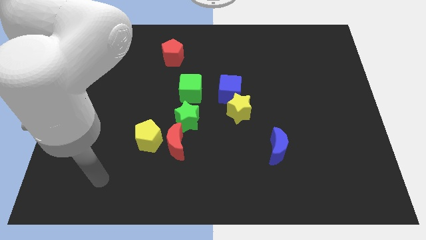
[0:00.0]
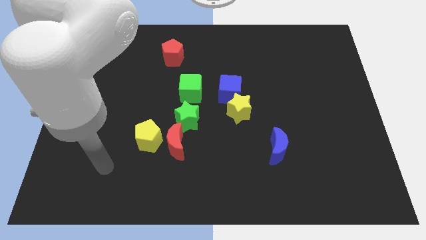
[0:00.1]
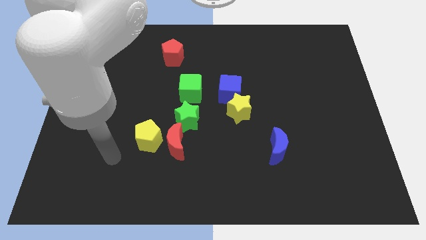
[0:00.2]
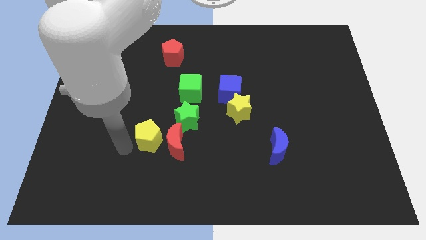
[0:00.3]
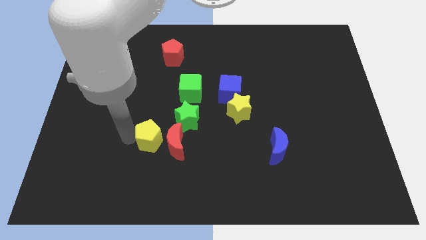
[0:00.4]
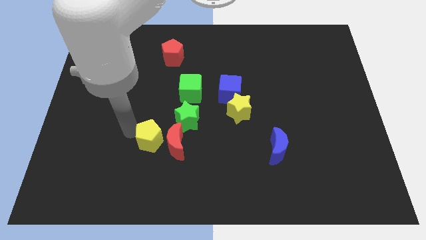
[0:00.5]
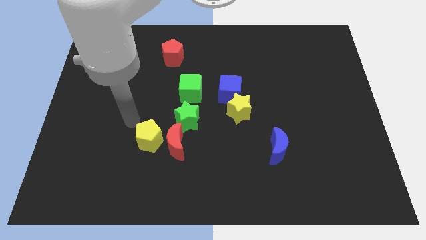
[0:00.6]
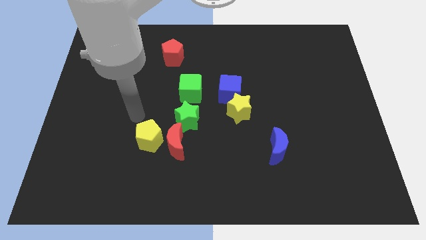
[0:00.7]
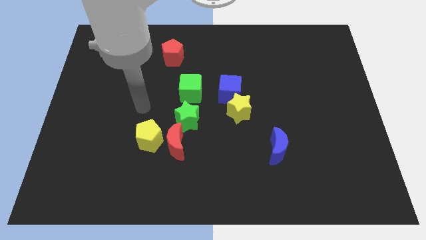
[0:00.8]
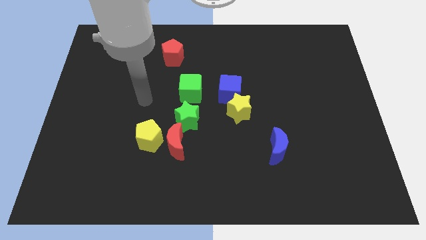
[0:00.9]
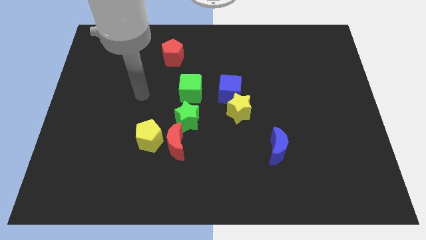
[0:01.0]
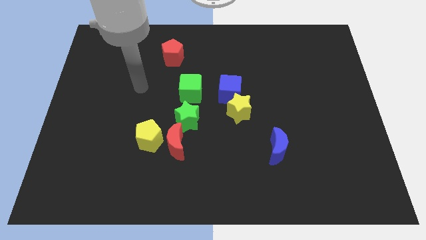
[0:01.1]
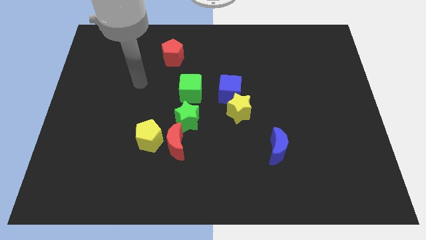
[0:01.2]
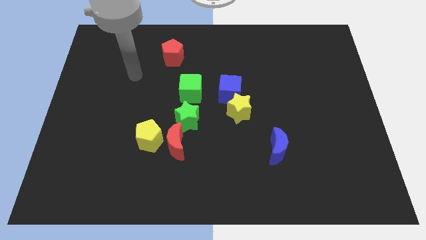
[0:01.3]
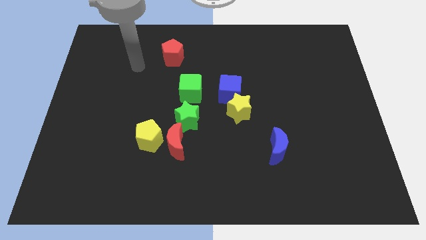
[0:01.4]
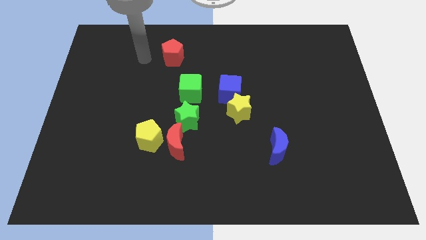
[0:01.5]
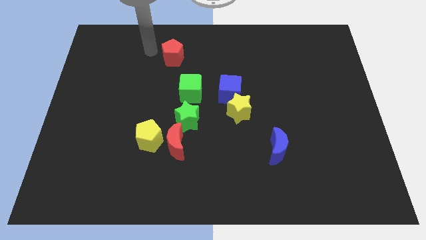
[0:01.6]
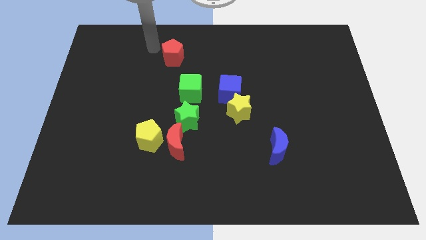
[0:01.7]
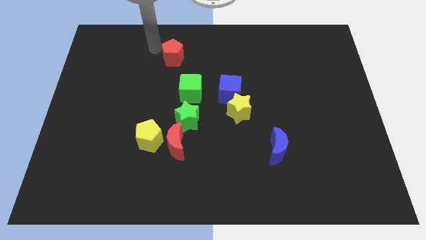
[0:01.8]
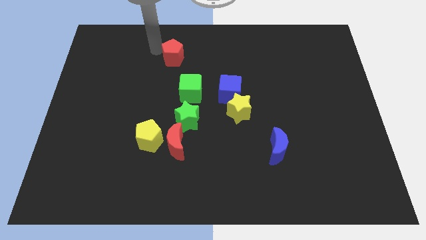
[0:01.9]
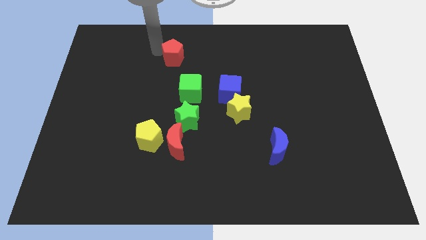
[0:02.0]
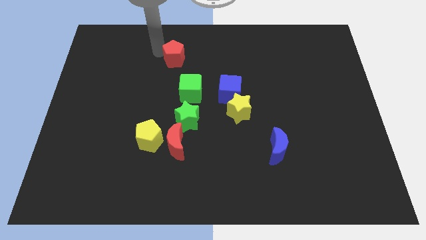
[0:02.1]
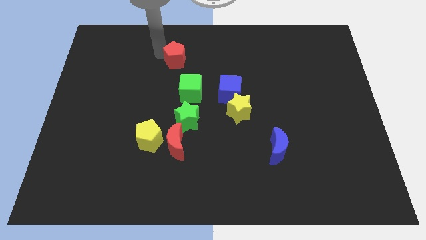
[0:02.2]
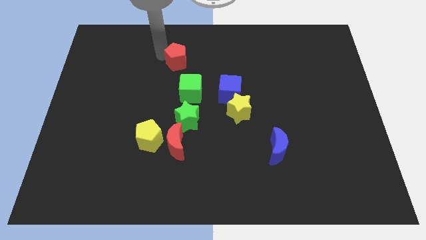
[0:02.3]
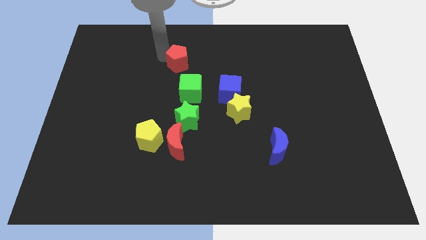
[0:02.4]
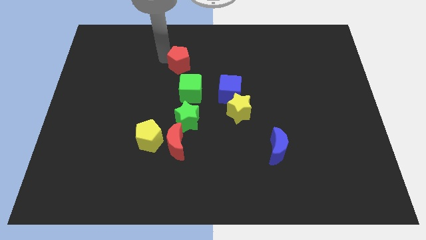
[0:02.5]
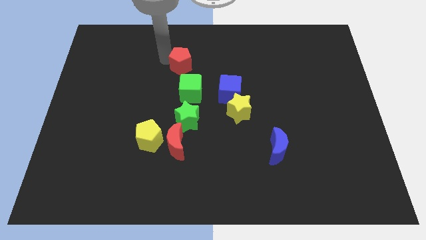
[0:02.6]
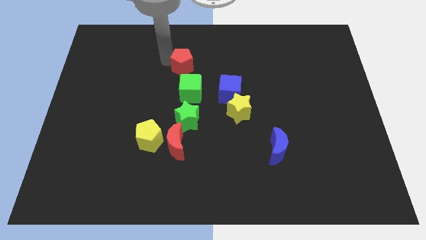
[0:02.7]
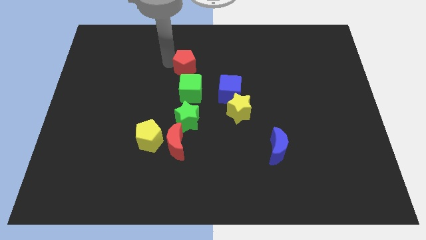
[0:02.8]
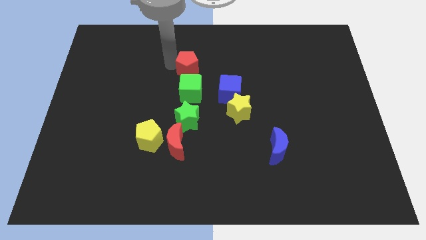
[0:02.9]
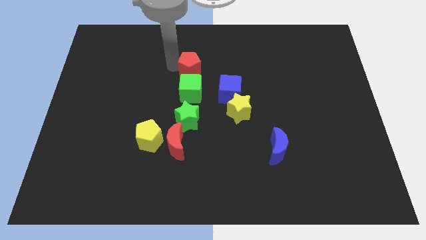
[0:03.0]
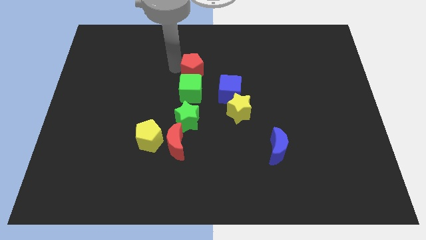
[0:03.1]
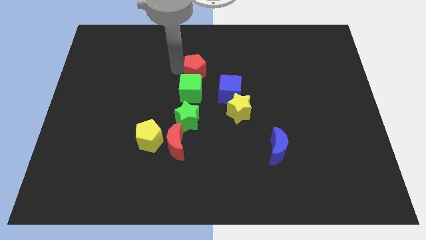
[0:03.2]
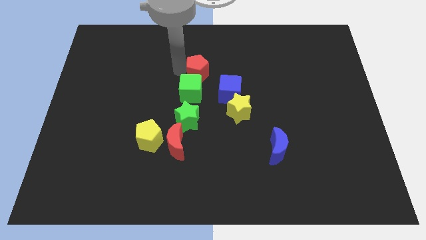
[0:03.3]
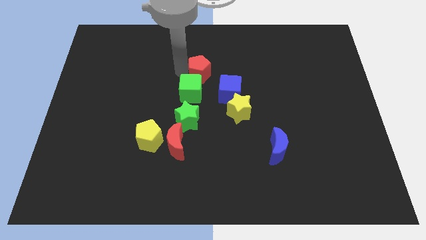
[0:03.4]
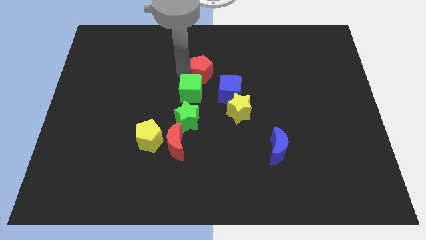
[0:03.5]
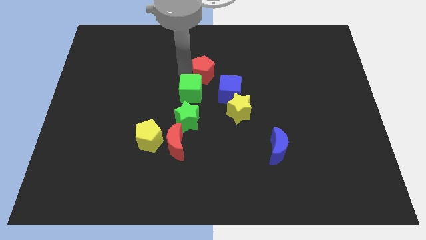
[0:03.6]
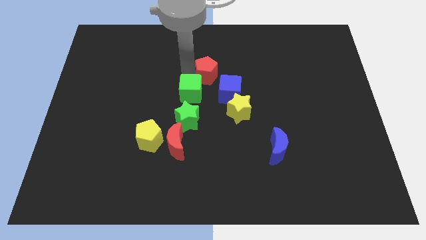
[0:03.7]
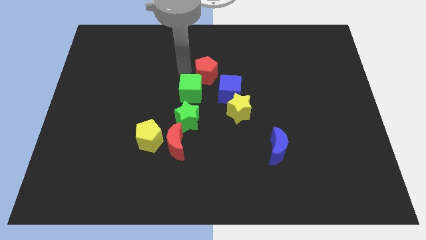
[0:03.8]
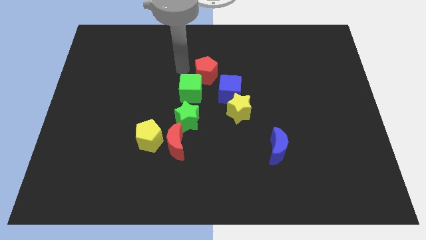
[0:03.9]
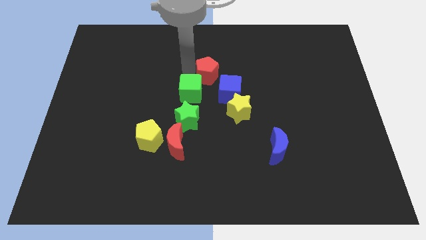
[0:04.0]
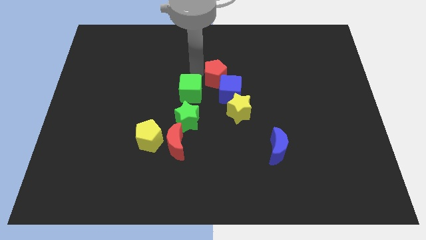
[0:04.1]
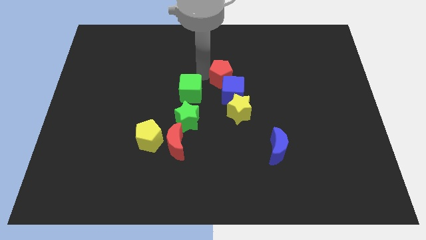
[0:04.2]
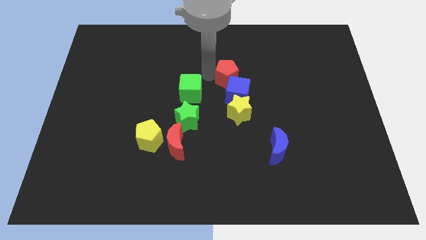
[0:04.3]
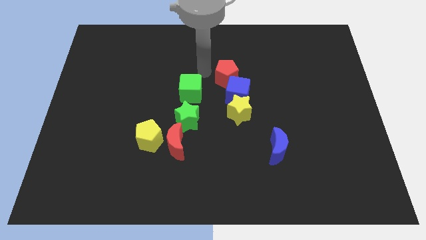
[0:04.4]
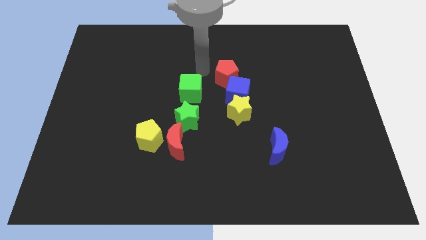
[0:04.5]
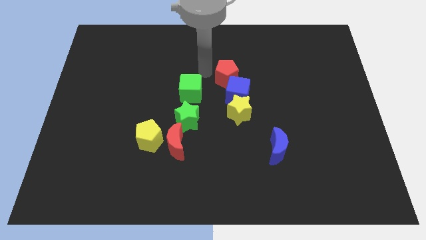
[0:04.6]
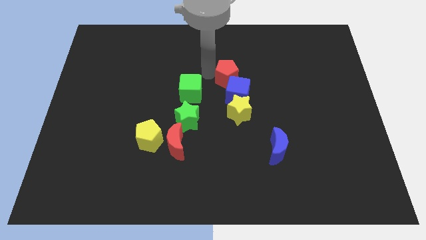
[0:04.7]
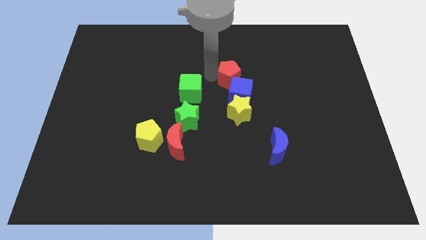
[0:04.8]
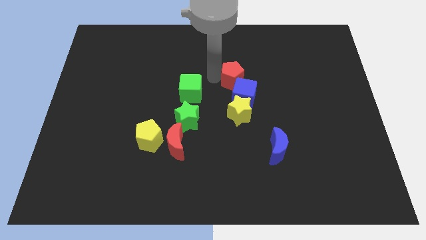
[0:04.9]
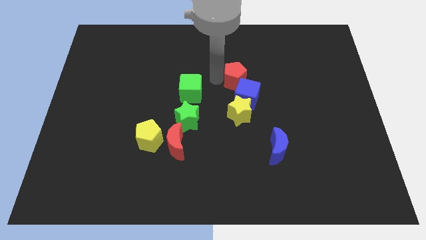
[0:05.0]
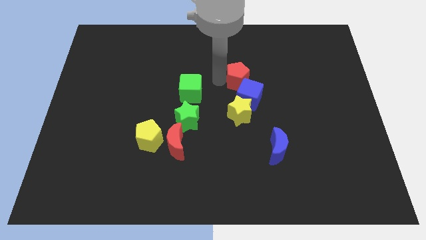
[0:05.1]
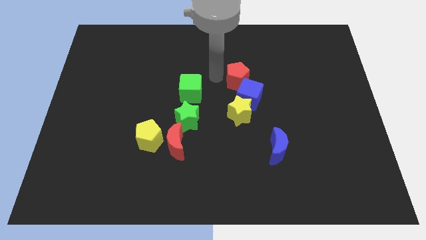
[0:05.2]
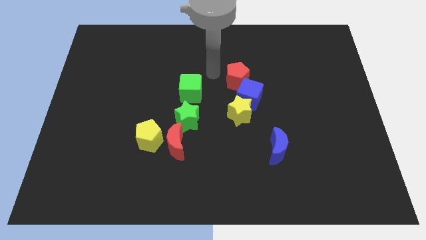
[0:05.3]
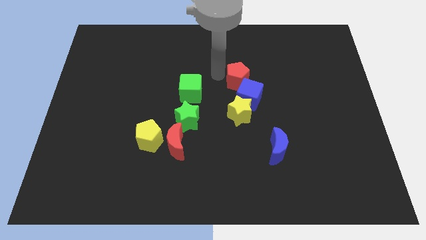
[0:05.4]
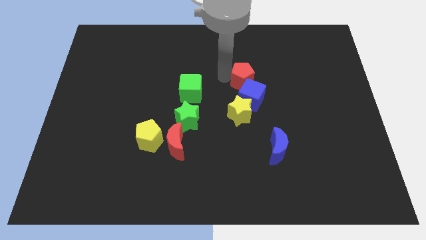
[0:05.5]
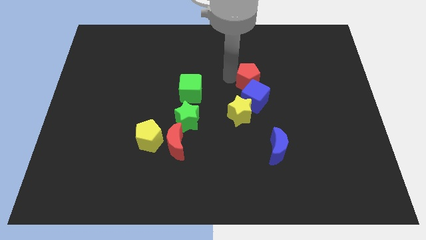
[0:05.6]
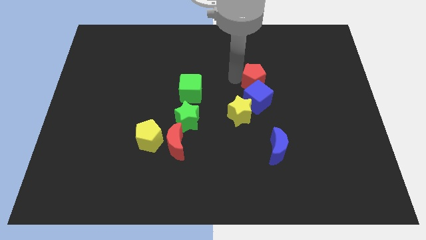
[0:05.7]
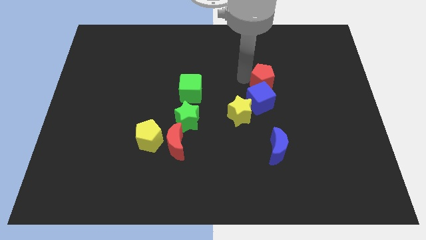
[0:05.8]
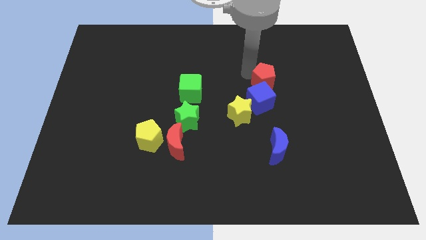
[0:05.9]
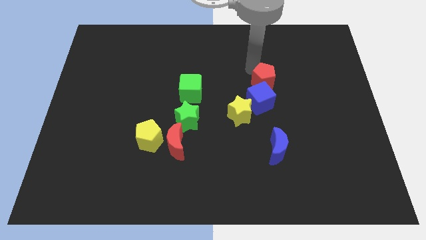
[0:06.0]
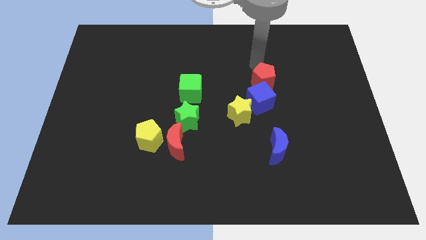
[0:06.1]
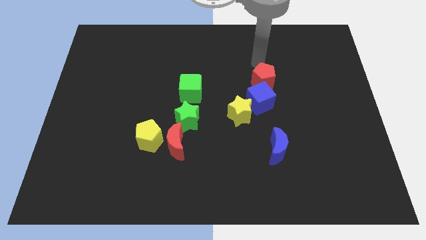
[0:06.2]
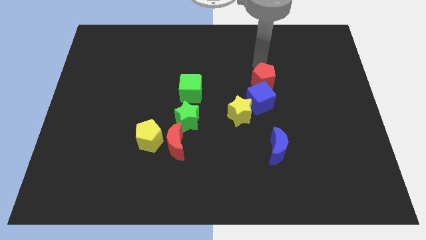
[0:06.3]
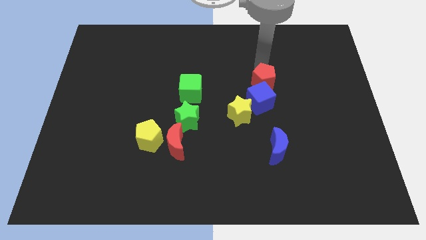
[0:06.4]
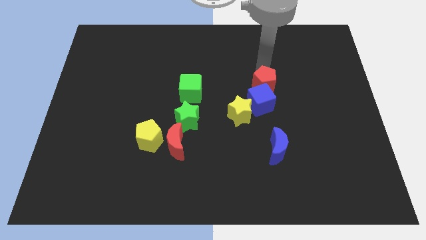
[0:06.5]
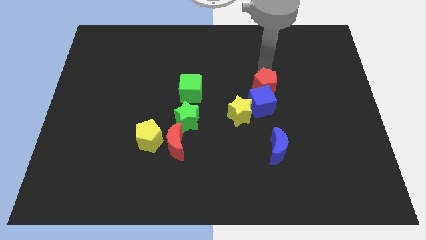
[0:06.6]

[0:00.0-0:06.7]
move the red pentagon downwards and right diagonally

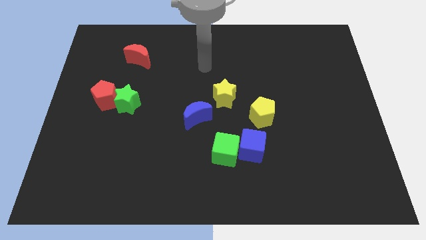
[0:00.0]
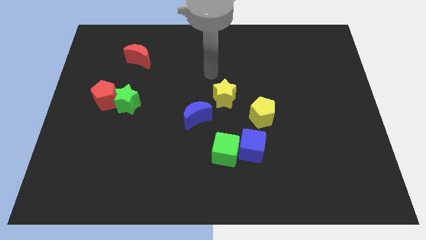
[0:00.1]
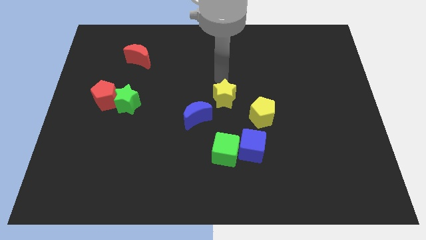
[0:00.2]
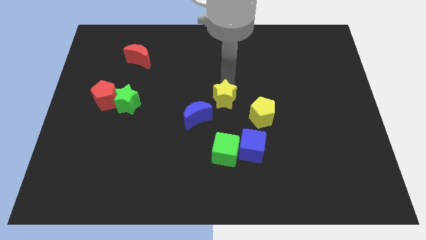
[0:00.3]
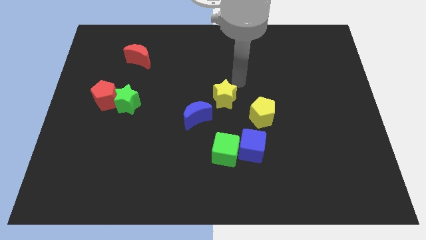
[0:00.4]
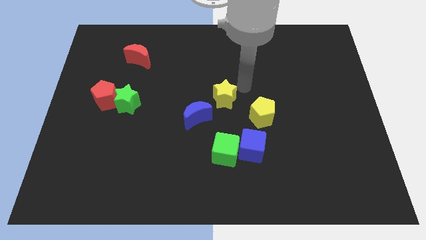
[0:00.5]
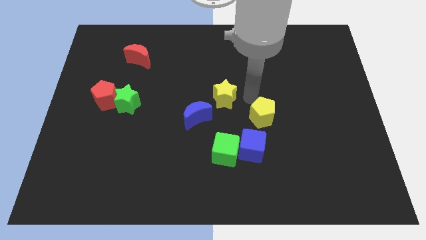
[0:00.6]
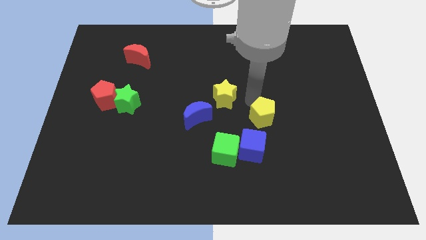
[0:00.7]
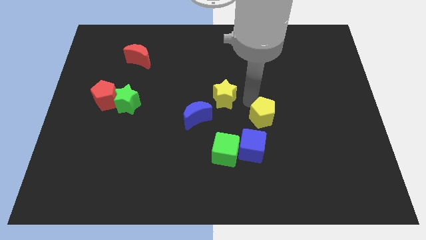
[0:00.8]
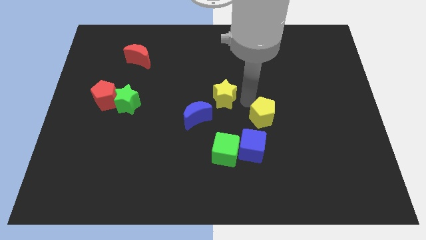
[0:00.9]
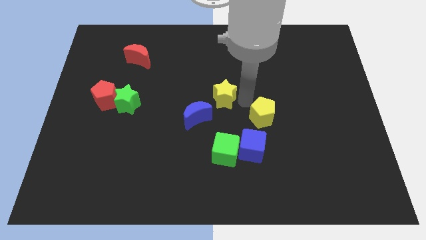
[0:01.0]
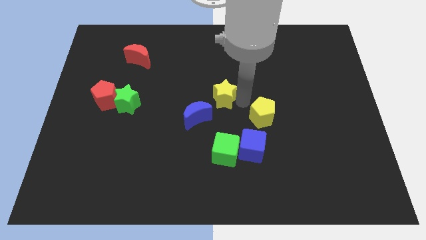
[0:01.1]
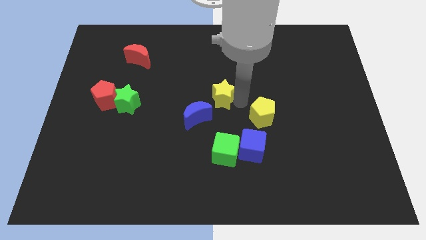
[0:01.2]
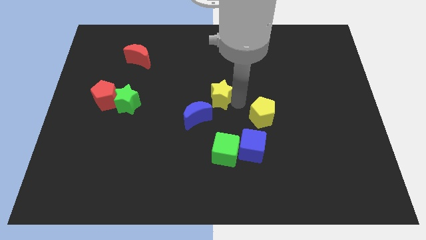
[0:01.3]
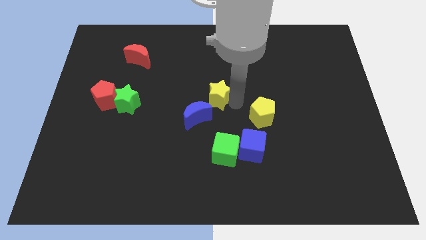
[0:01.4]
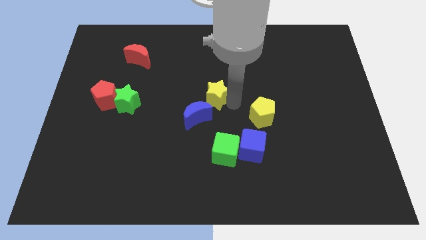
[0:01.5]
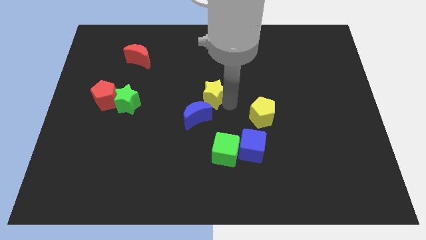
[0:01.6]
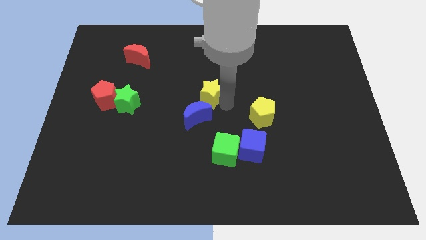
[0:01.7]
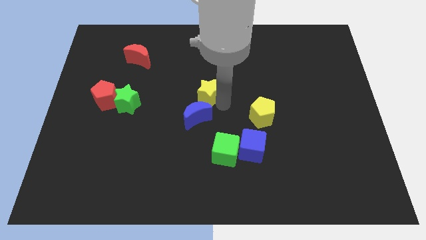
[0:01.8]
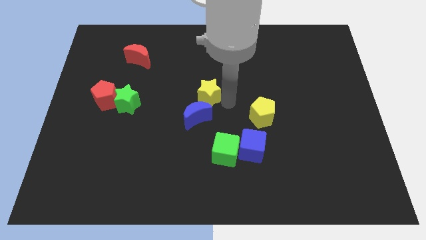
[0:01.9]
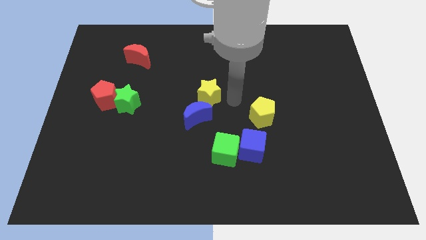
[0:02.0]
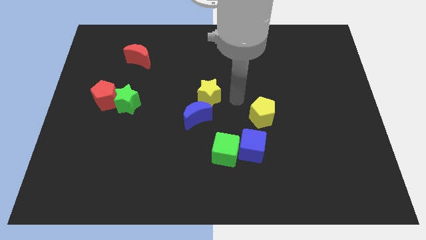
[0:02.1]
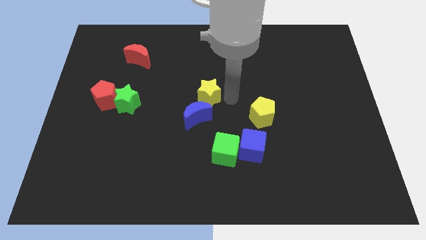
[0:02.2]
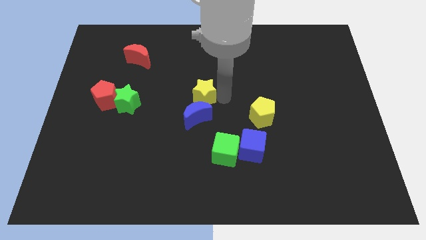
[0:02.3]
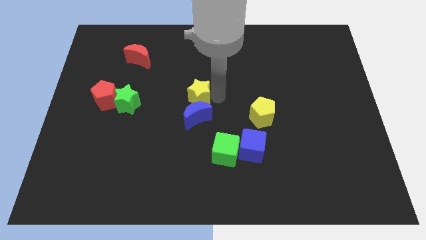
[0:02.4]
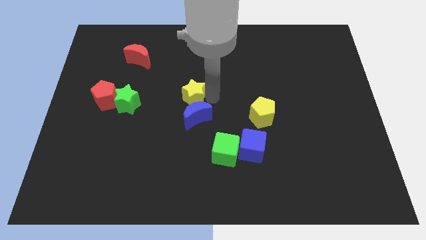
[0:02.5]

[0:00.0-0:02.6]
slightly move the yellow star to the left
